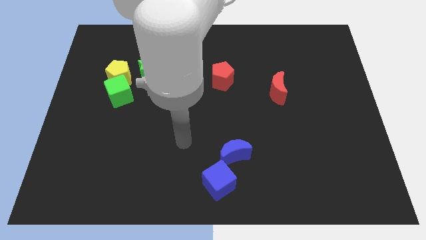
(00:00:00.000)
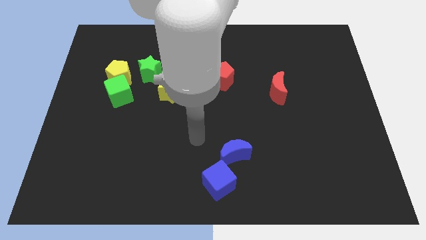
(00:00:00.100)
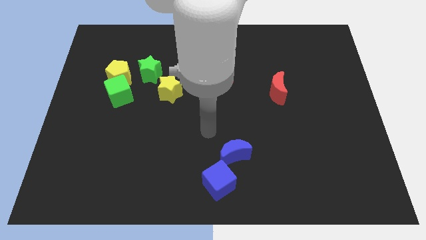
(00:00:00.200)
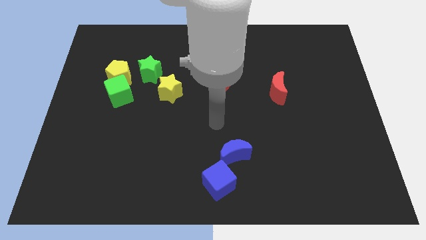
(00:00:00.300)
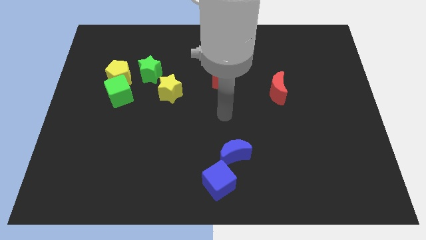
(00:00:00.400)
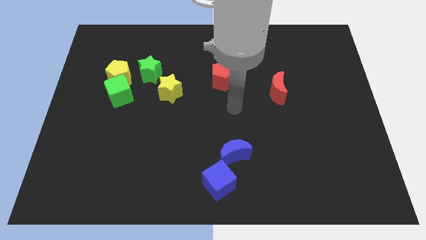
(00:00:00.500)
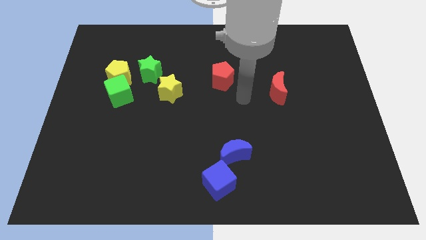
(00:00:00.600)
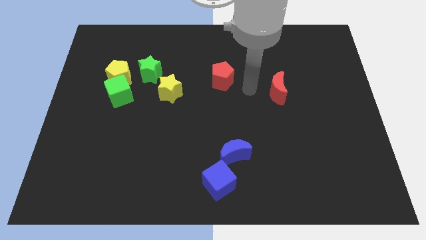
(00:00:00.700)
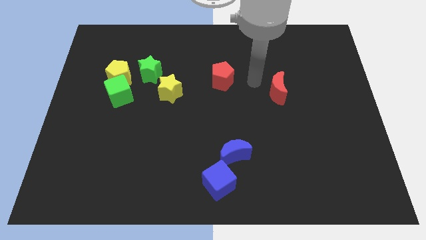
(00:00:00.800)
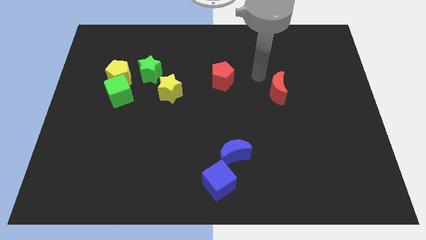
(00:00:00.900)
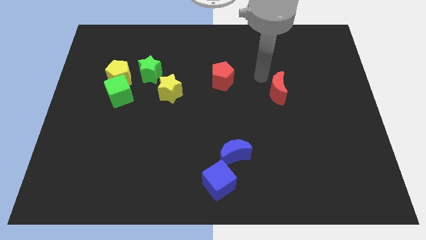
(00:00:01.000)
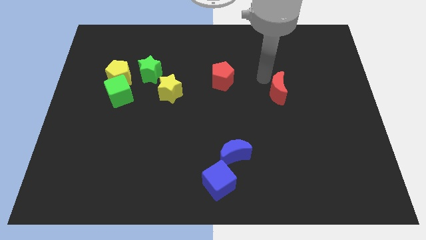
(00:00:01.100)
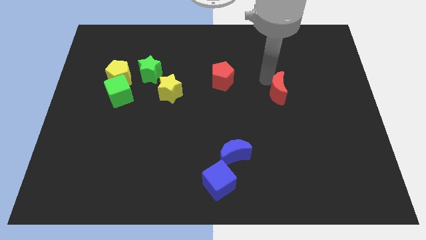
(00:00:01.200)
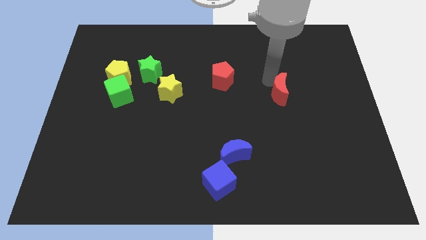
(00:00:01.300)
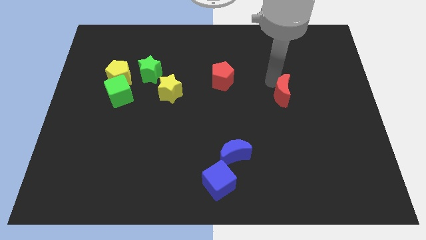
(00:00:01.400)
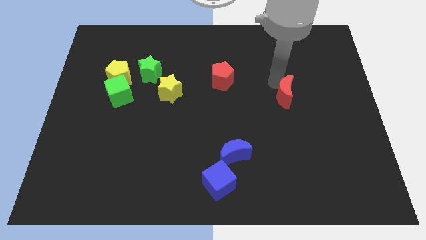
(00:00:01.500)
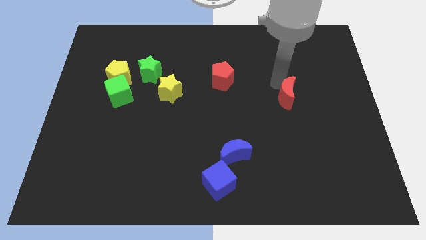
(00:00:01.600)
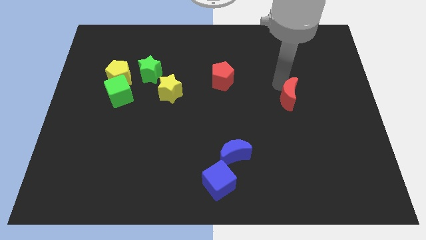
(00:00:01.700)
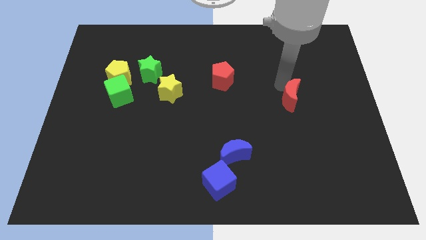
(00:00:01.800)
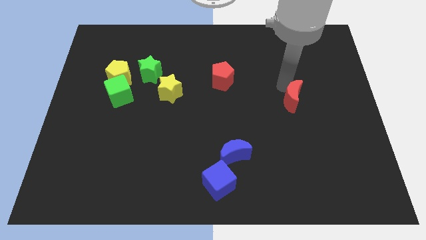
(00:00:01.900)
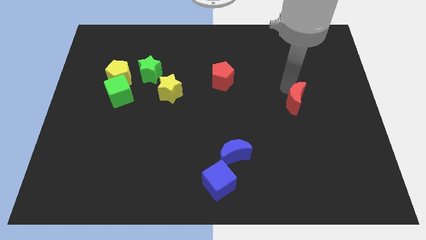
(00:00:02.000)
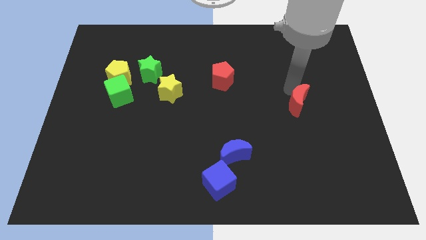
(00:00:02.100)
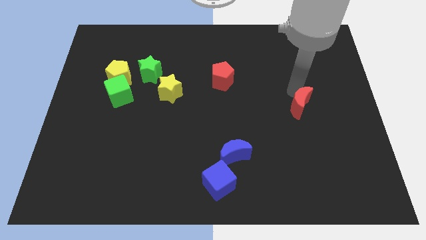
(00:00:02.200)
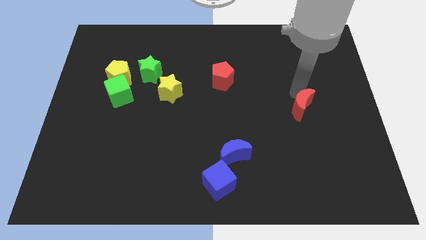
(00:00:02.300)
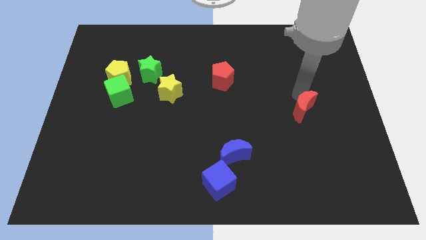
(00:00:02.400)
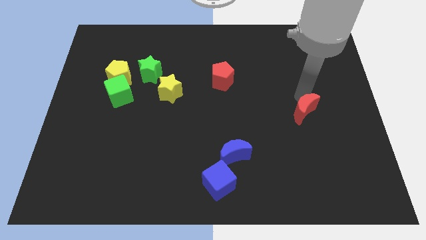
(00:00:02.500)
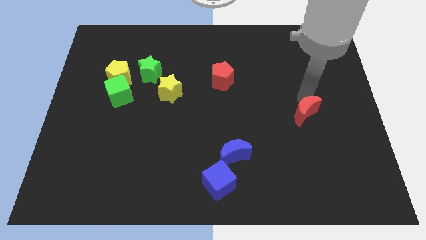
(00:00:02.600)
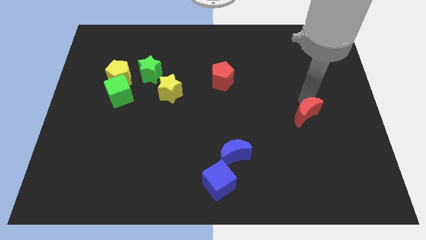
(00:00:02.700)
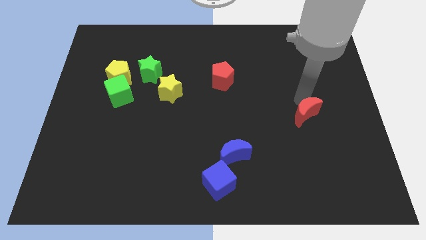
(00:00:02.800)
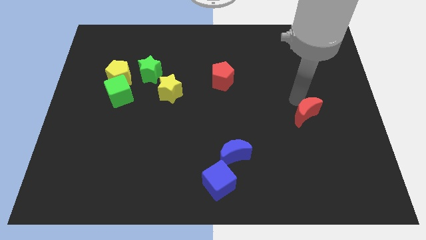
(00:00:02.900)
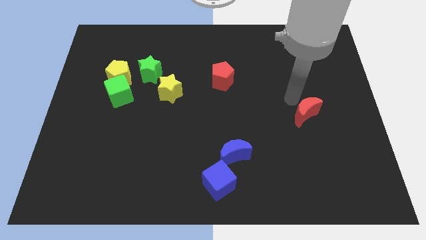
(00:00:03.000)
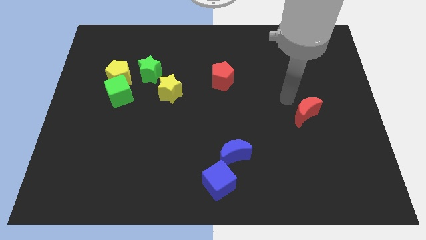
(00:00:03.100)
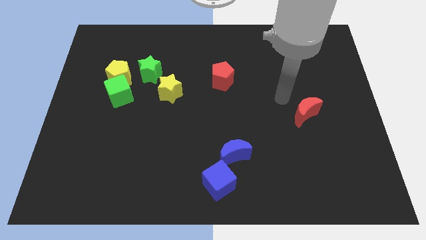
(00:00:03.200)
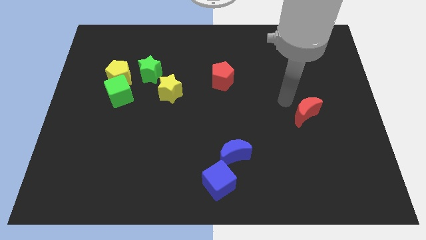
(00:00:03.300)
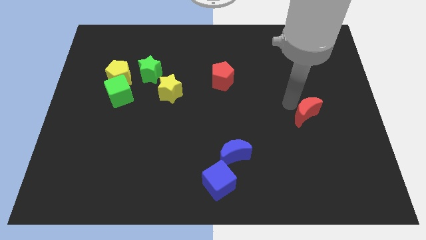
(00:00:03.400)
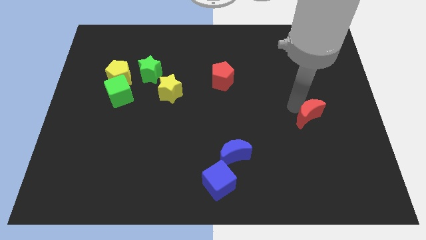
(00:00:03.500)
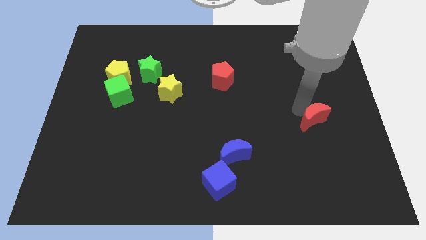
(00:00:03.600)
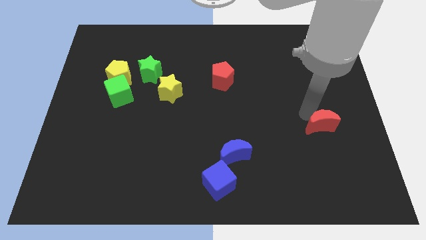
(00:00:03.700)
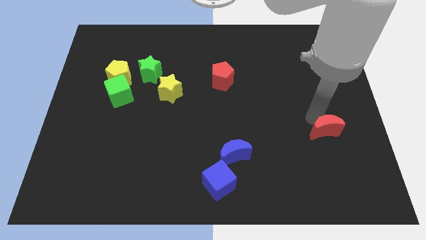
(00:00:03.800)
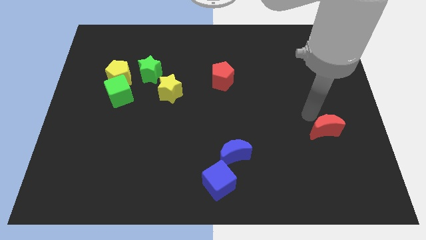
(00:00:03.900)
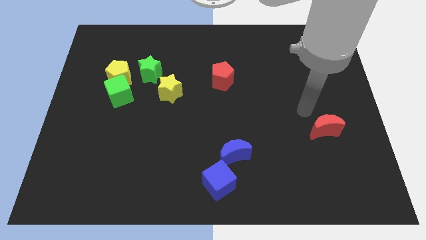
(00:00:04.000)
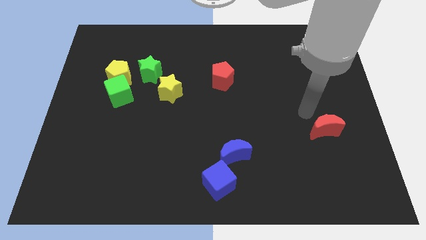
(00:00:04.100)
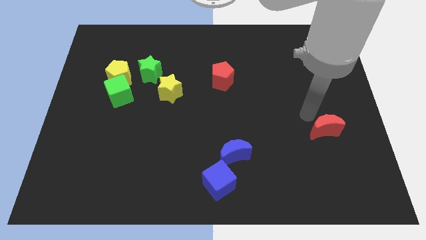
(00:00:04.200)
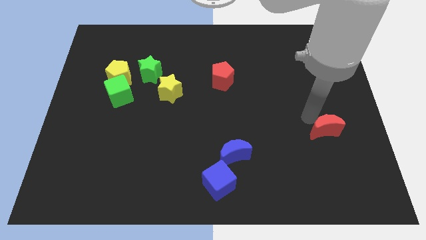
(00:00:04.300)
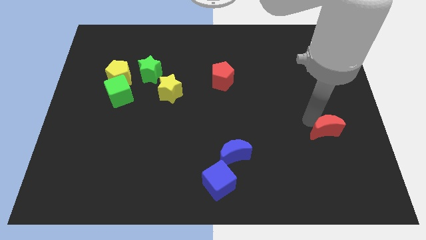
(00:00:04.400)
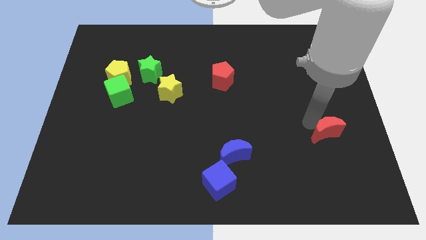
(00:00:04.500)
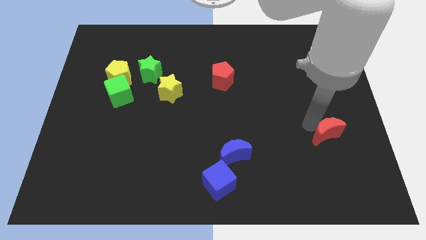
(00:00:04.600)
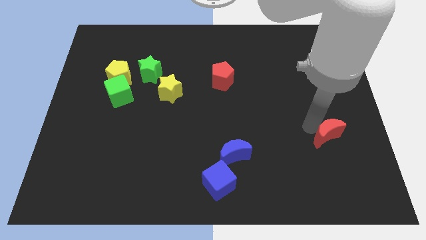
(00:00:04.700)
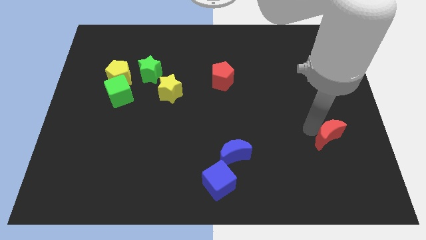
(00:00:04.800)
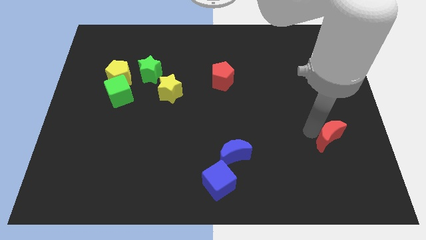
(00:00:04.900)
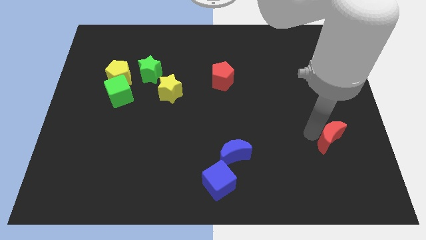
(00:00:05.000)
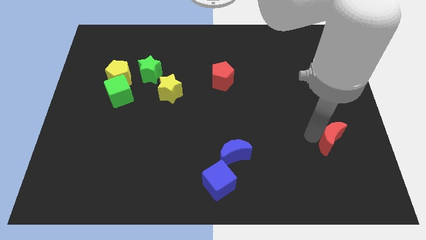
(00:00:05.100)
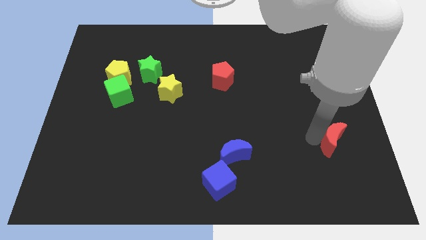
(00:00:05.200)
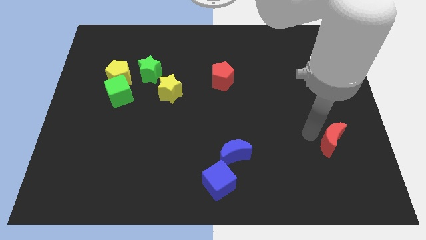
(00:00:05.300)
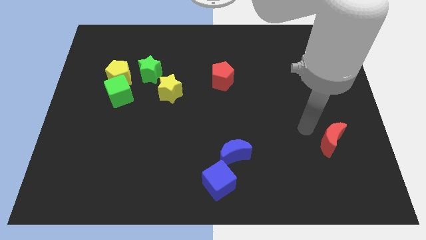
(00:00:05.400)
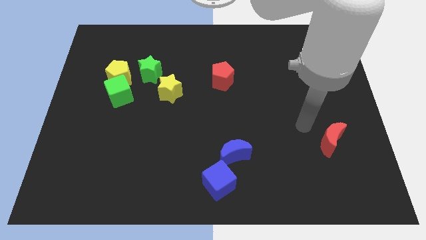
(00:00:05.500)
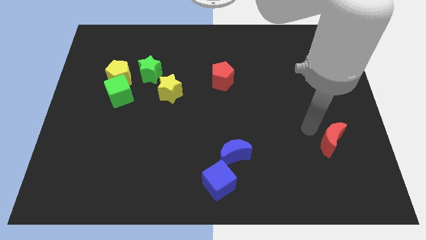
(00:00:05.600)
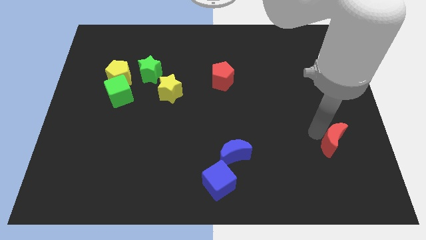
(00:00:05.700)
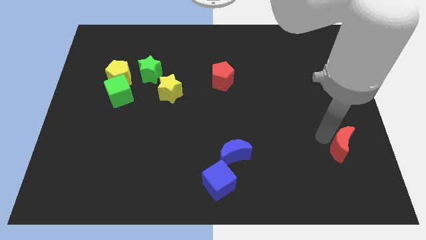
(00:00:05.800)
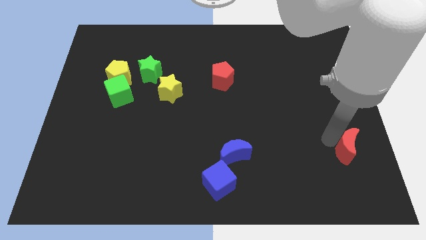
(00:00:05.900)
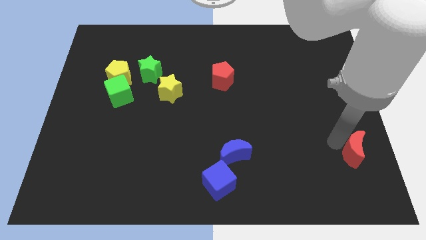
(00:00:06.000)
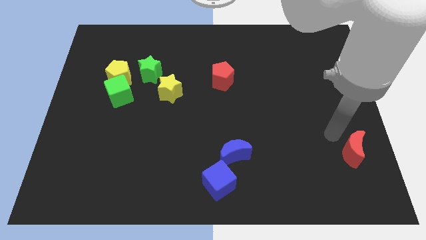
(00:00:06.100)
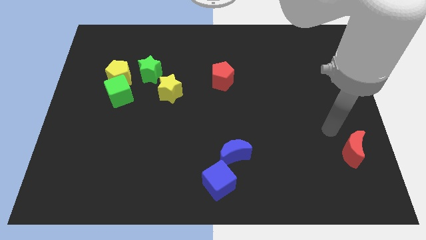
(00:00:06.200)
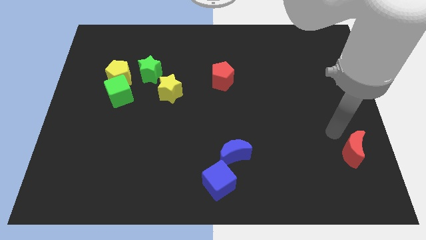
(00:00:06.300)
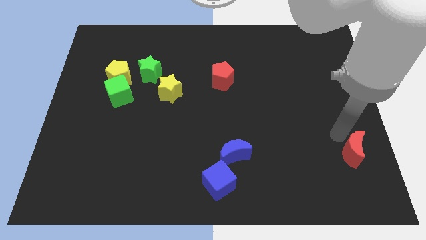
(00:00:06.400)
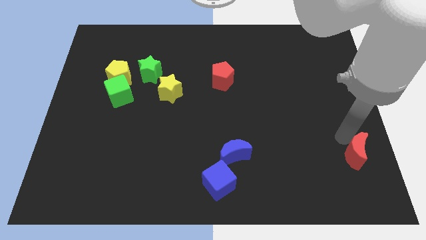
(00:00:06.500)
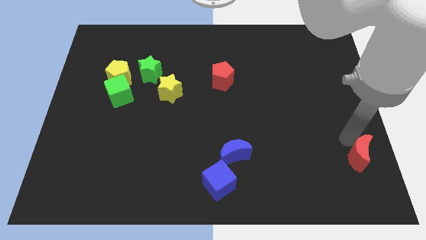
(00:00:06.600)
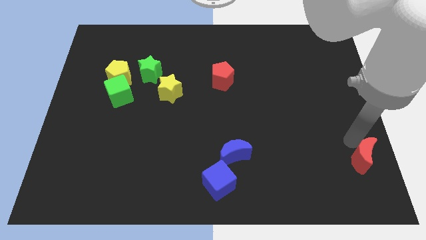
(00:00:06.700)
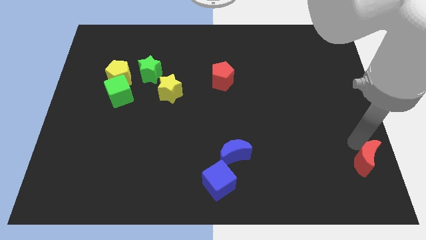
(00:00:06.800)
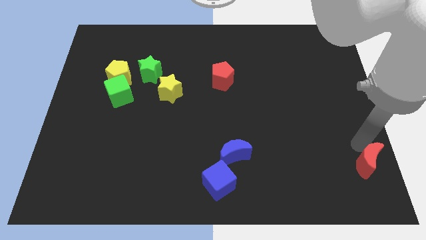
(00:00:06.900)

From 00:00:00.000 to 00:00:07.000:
put the red moon to the bottom right corner
